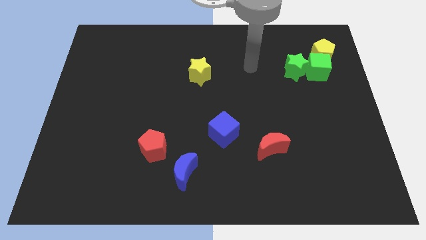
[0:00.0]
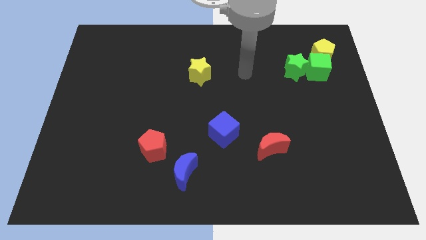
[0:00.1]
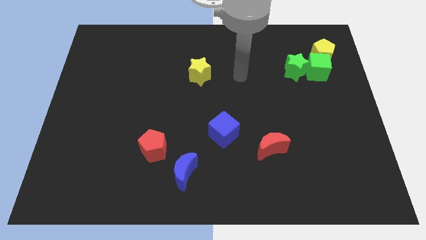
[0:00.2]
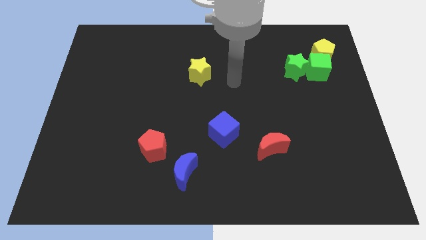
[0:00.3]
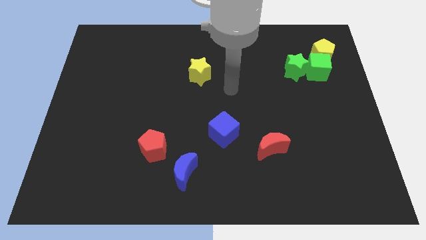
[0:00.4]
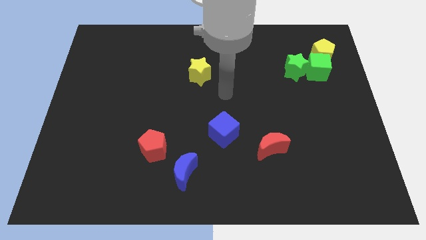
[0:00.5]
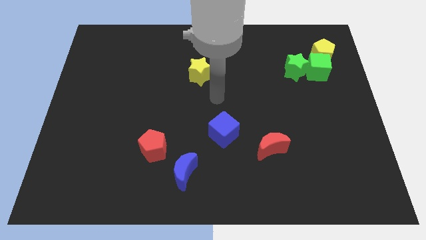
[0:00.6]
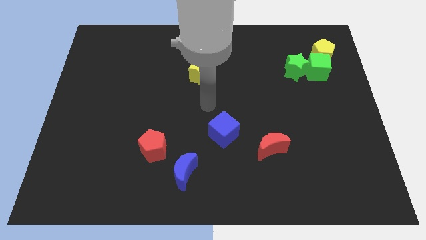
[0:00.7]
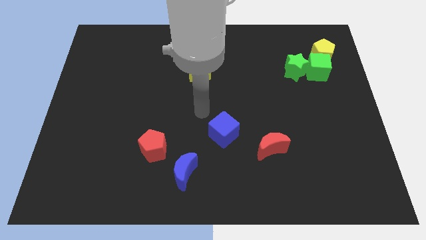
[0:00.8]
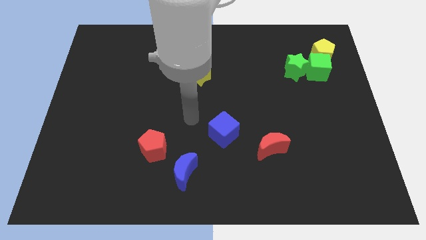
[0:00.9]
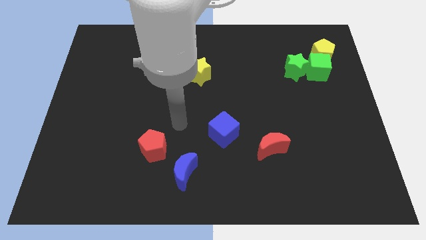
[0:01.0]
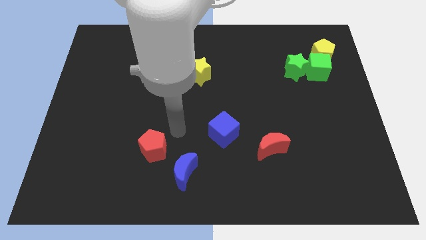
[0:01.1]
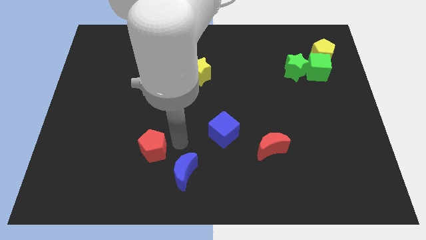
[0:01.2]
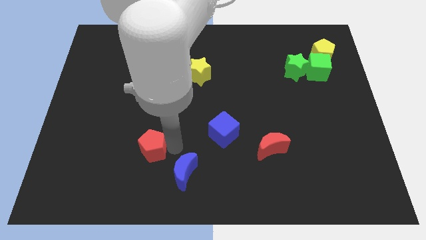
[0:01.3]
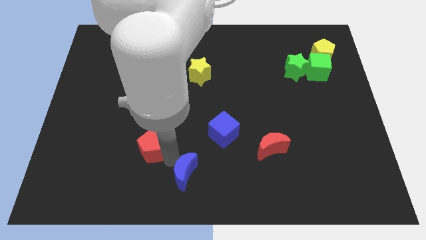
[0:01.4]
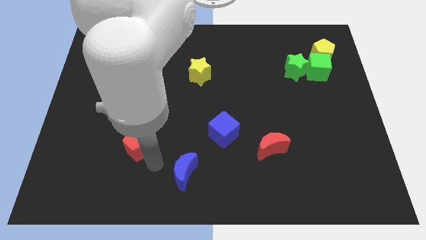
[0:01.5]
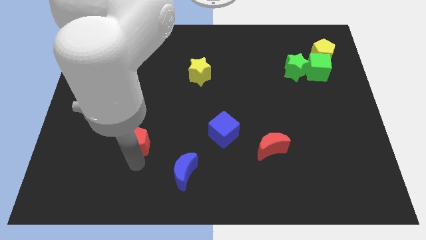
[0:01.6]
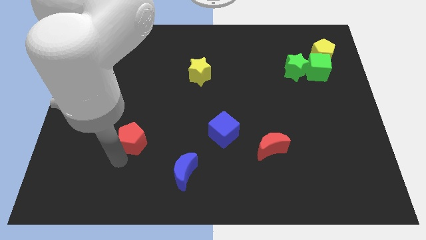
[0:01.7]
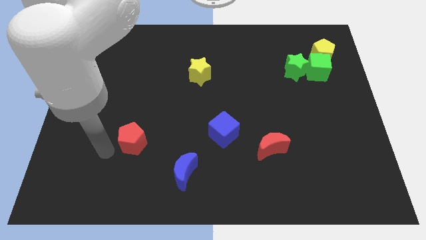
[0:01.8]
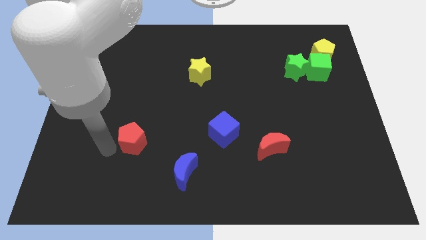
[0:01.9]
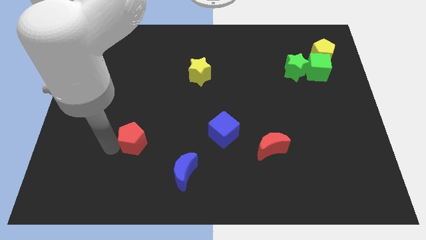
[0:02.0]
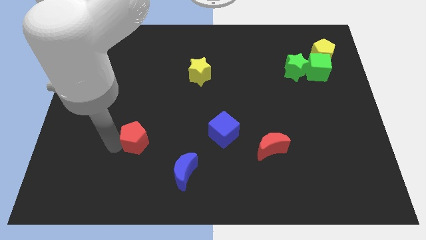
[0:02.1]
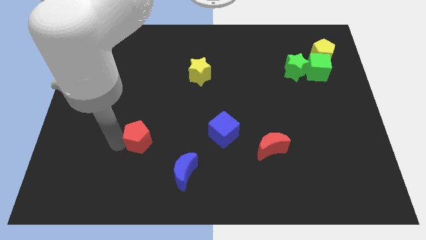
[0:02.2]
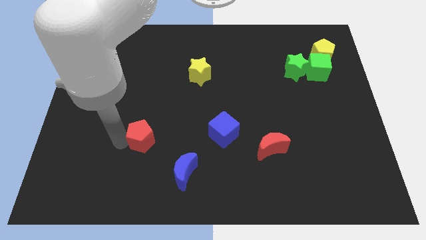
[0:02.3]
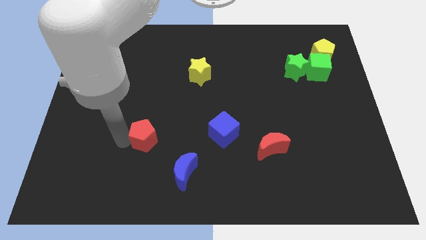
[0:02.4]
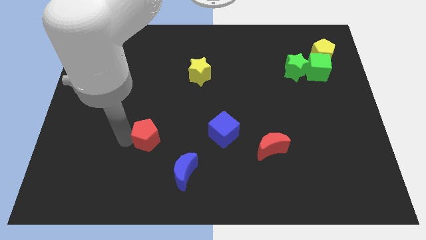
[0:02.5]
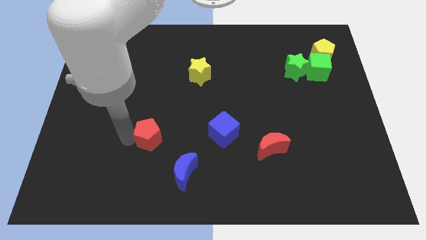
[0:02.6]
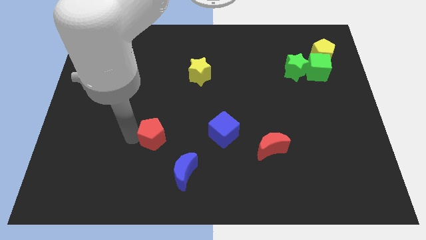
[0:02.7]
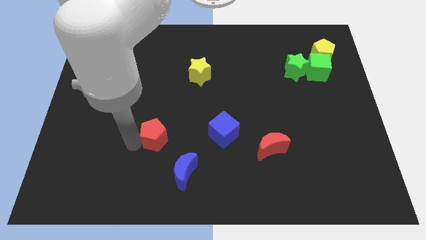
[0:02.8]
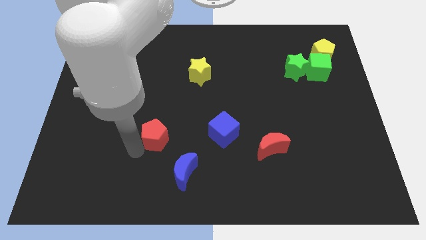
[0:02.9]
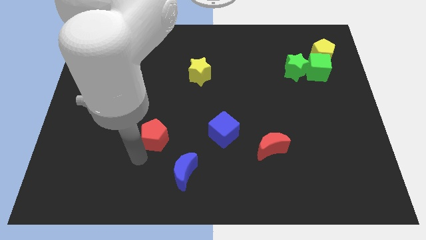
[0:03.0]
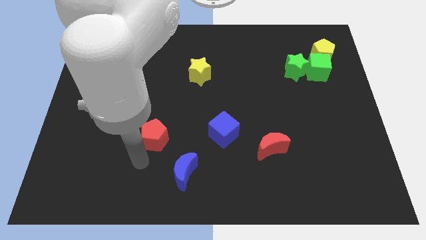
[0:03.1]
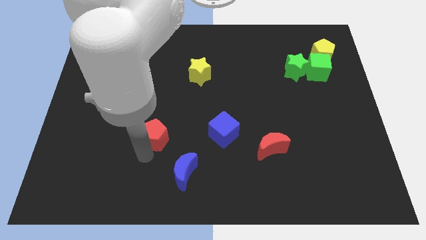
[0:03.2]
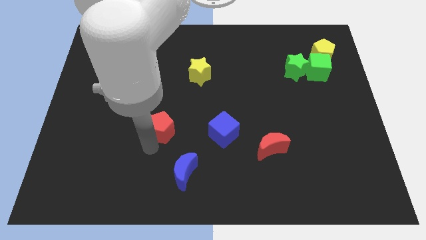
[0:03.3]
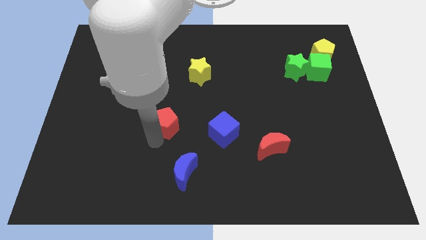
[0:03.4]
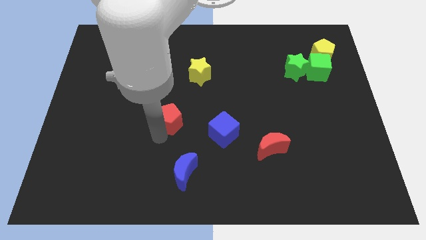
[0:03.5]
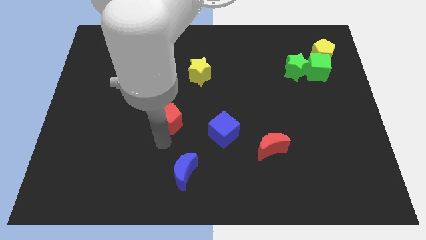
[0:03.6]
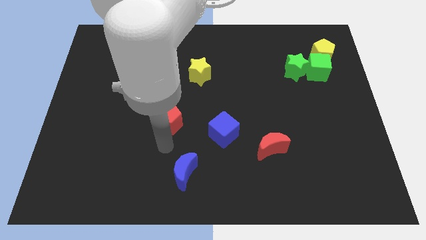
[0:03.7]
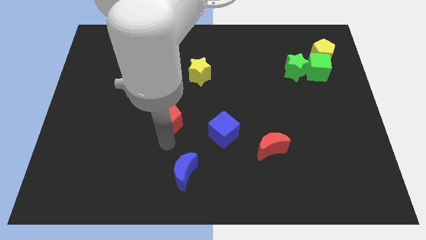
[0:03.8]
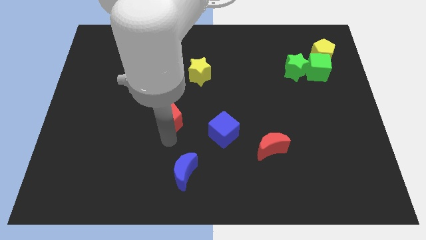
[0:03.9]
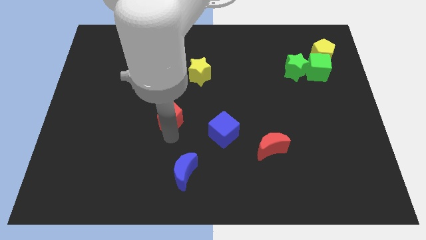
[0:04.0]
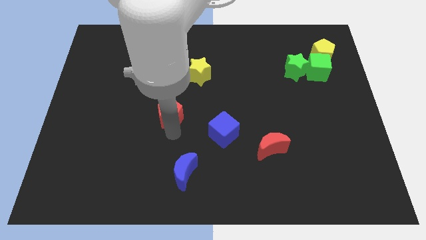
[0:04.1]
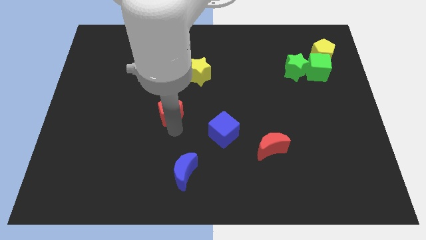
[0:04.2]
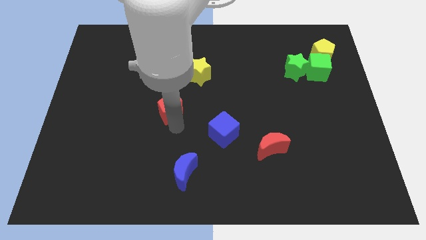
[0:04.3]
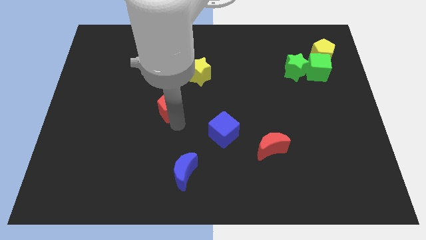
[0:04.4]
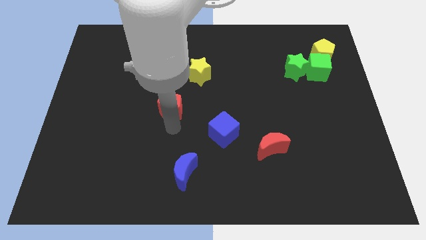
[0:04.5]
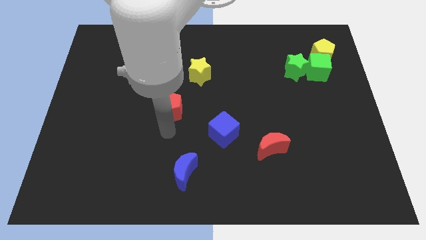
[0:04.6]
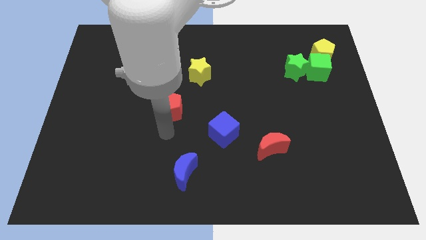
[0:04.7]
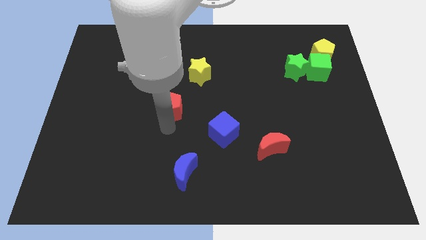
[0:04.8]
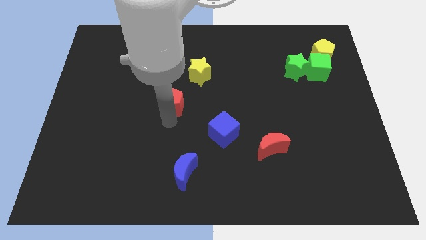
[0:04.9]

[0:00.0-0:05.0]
push the red pentagon diagonally down and to the left of the yellow star

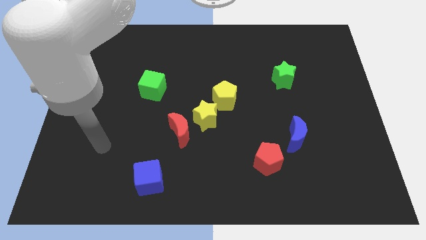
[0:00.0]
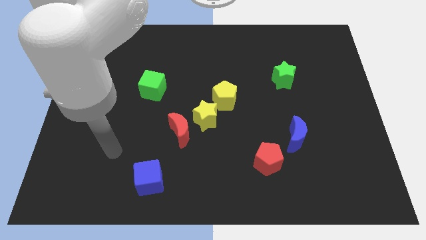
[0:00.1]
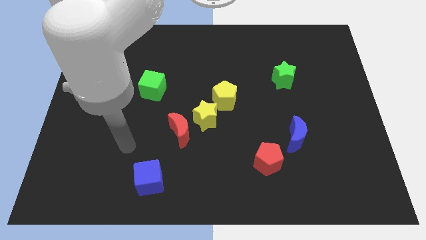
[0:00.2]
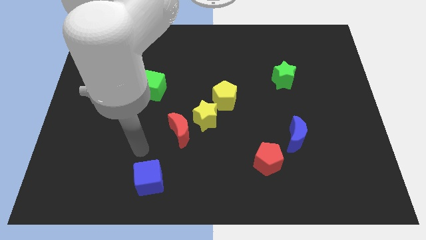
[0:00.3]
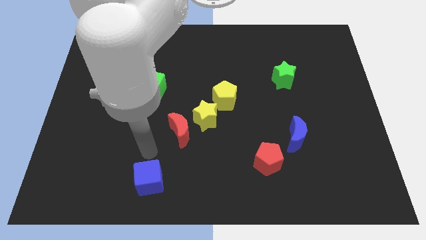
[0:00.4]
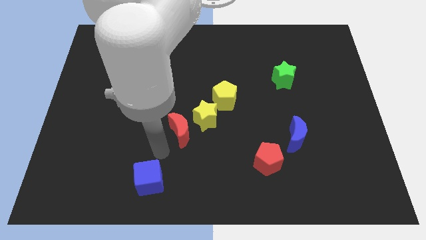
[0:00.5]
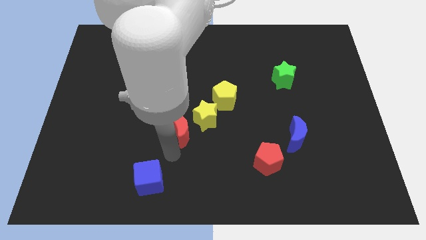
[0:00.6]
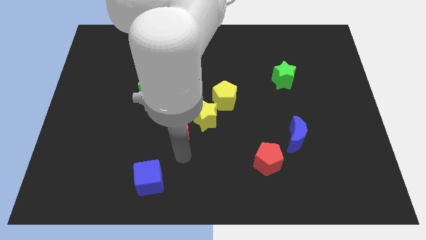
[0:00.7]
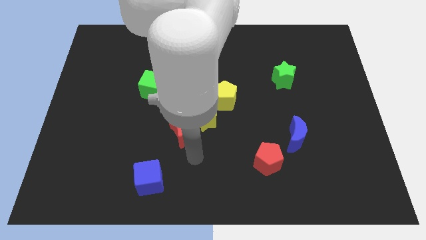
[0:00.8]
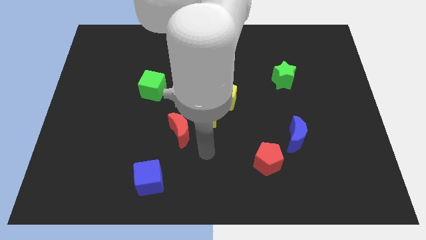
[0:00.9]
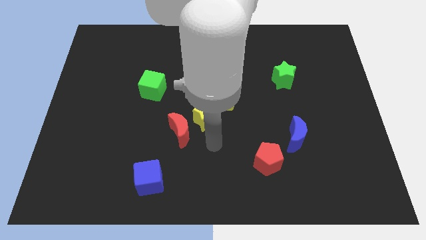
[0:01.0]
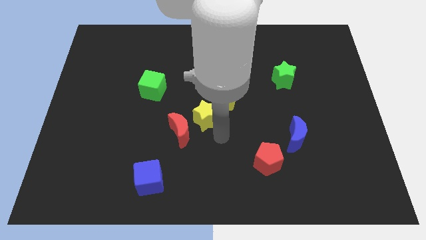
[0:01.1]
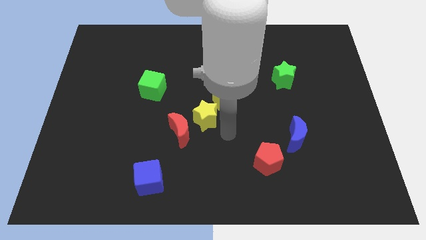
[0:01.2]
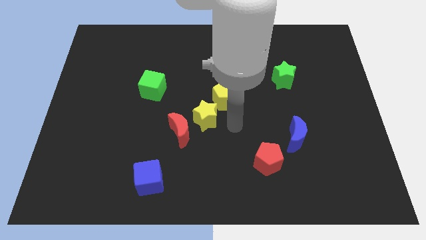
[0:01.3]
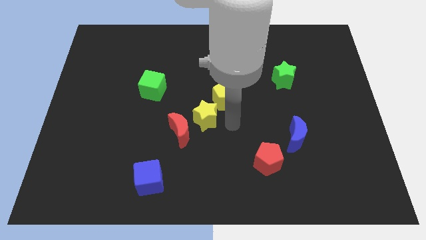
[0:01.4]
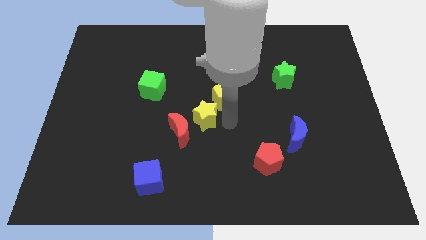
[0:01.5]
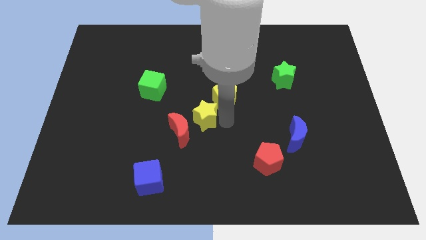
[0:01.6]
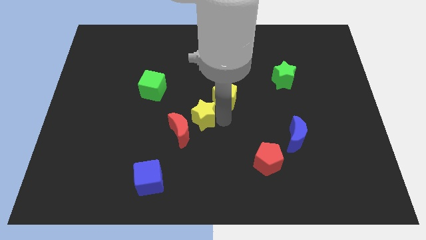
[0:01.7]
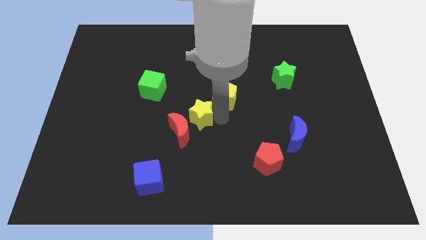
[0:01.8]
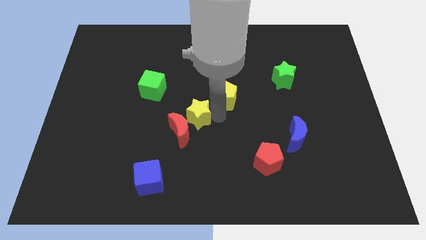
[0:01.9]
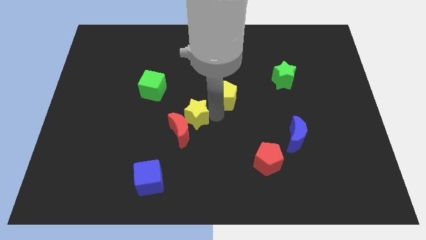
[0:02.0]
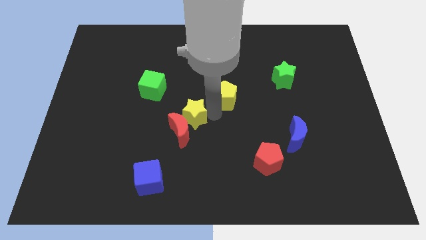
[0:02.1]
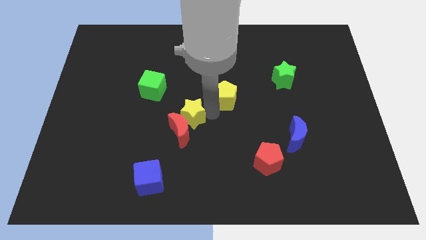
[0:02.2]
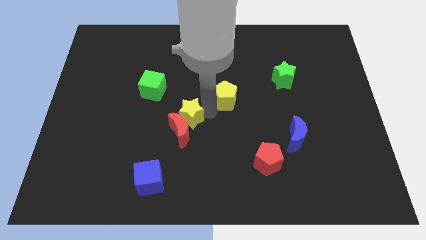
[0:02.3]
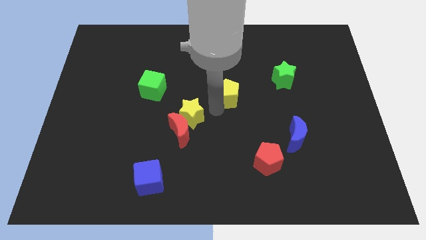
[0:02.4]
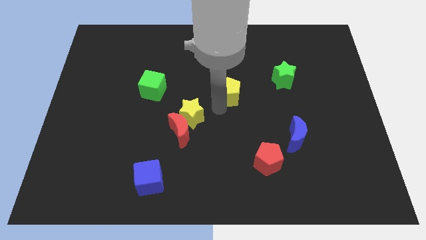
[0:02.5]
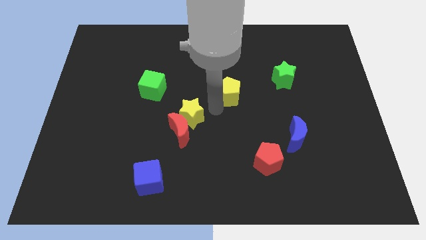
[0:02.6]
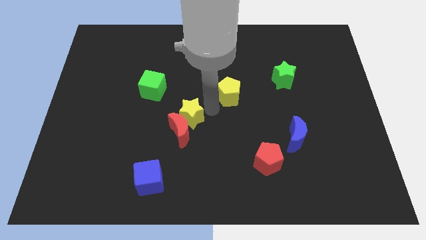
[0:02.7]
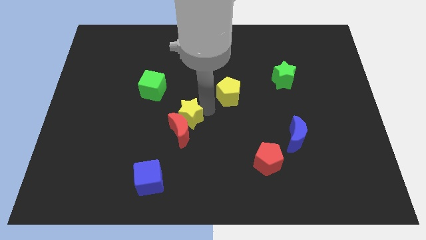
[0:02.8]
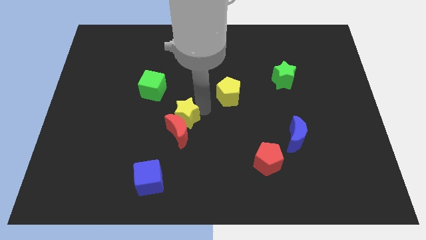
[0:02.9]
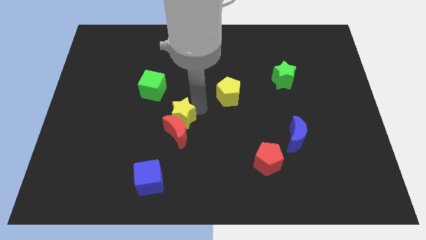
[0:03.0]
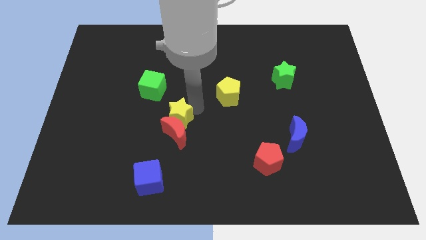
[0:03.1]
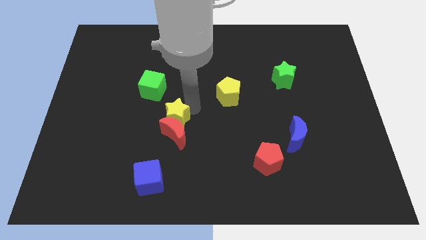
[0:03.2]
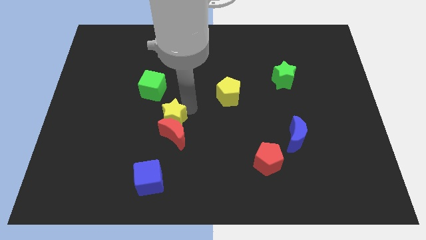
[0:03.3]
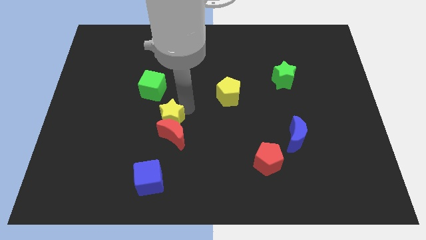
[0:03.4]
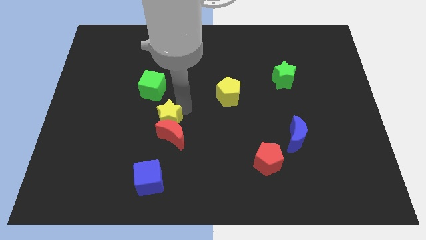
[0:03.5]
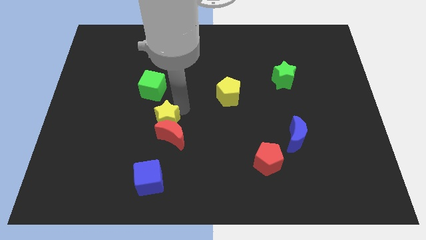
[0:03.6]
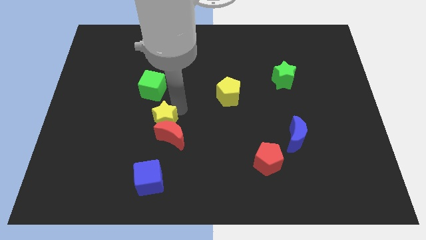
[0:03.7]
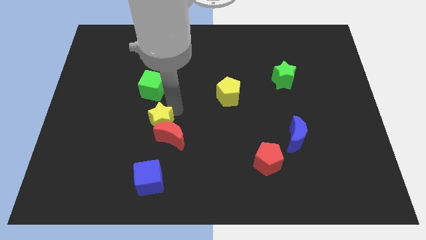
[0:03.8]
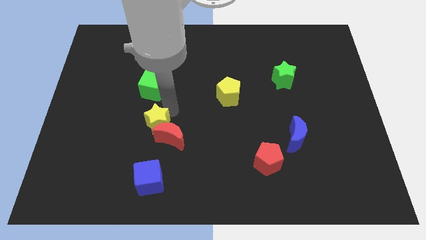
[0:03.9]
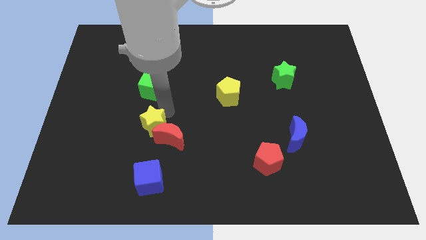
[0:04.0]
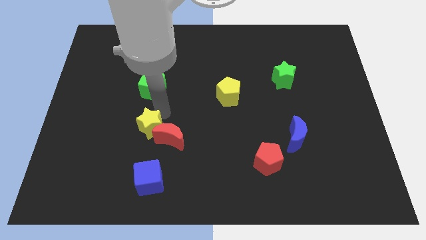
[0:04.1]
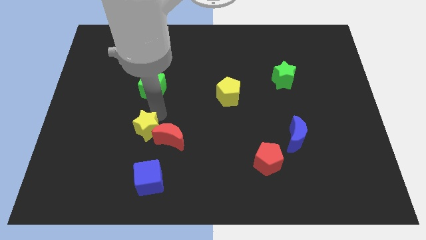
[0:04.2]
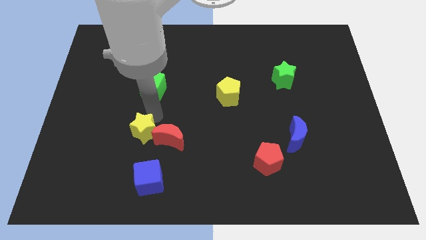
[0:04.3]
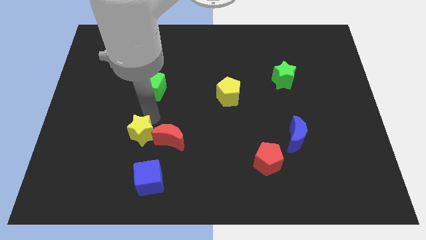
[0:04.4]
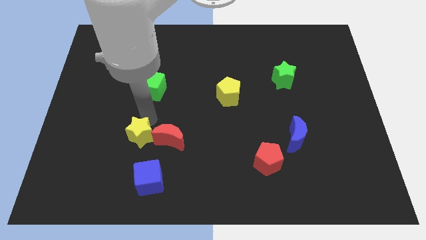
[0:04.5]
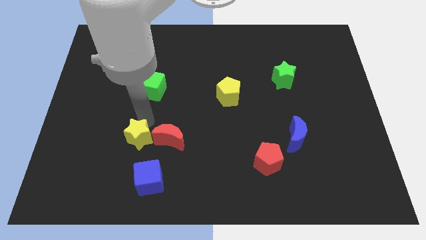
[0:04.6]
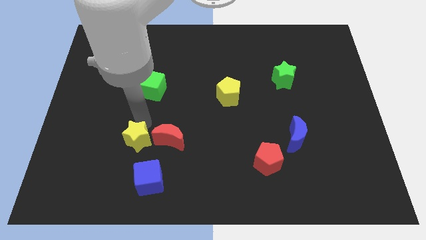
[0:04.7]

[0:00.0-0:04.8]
push the yellow star to the top left of the blue cube
